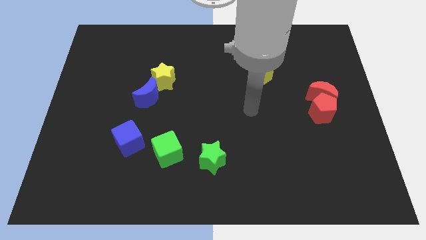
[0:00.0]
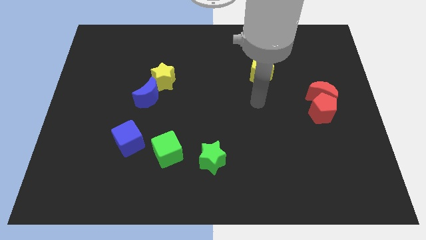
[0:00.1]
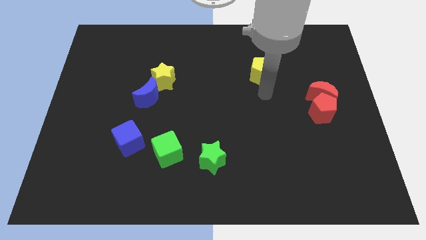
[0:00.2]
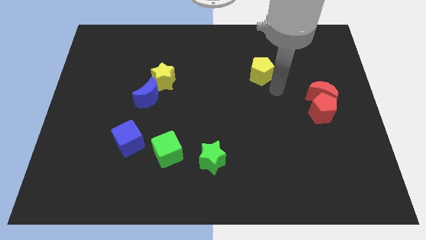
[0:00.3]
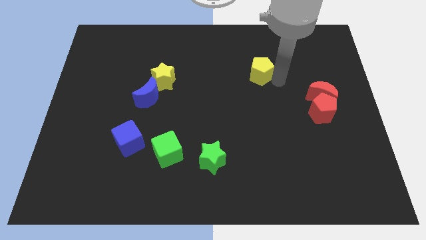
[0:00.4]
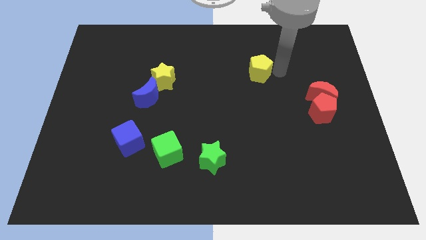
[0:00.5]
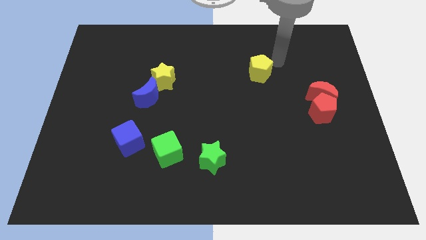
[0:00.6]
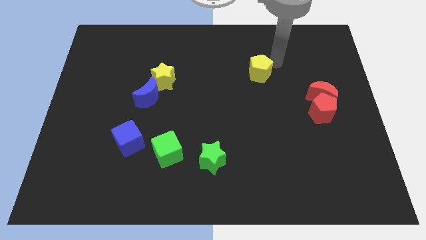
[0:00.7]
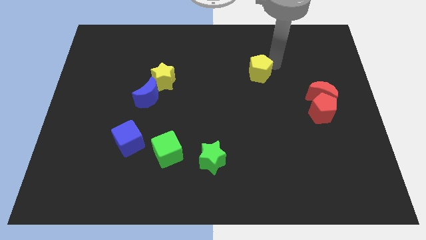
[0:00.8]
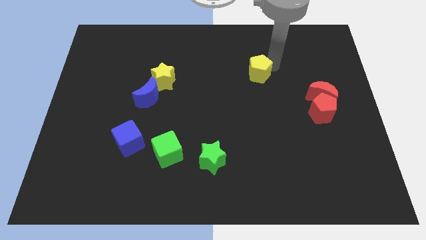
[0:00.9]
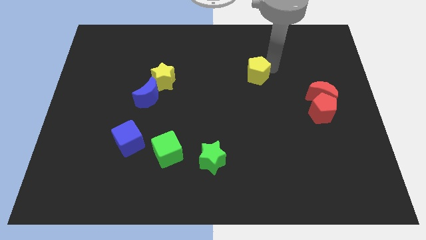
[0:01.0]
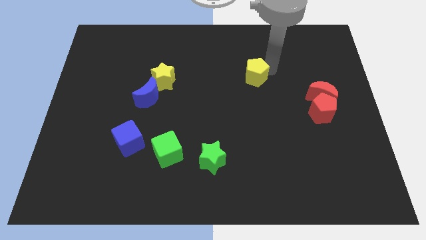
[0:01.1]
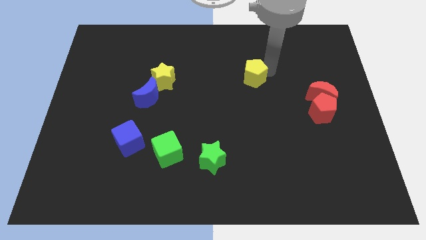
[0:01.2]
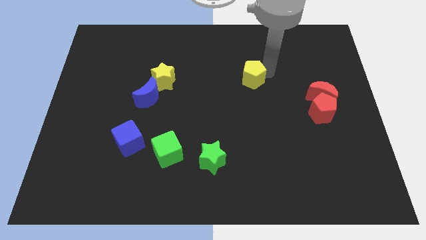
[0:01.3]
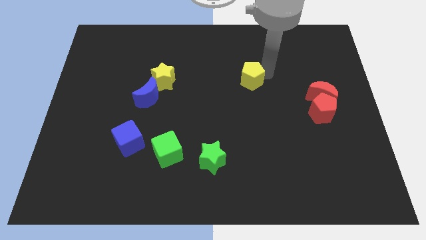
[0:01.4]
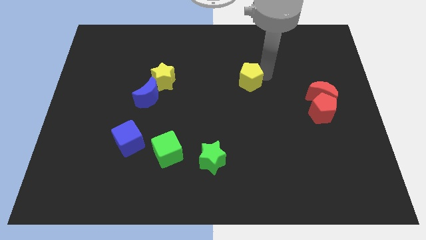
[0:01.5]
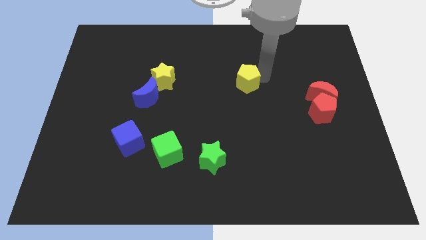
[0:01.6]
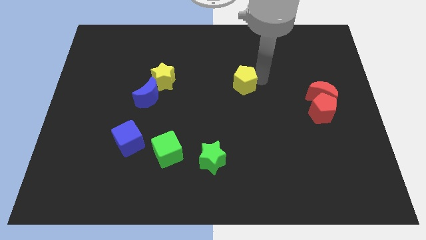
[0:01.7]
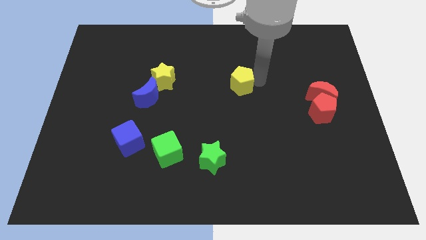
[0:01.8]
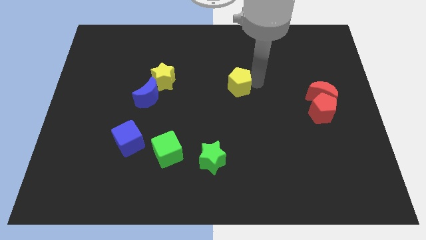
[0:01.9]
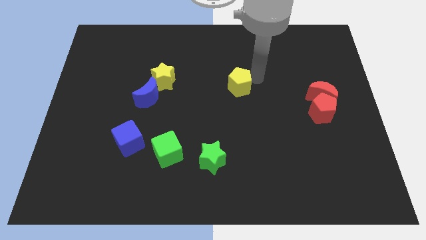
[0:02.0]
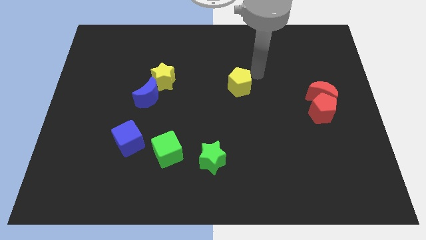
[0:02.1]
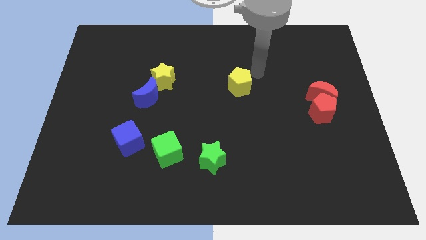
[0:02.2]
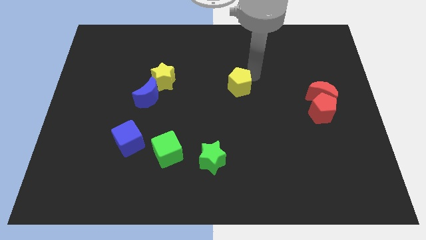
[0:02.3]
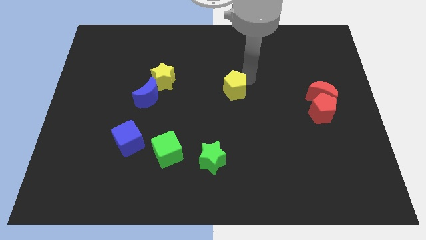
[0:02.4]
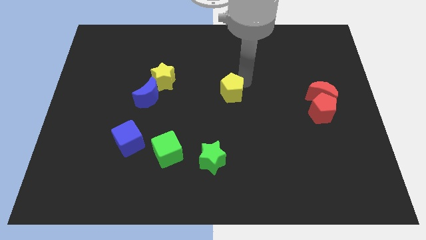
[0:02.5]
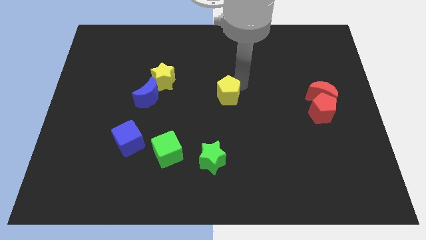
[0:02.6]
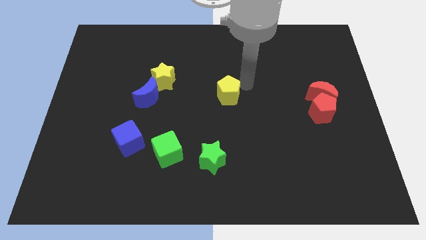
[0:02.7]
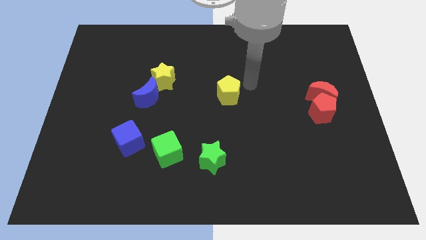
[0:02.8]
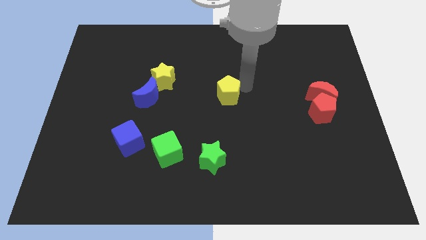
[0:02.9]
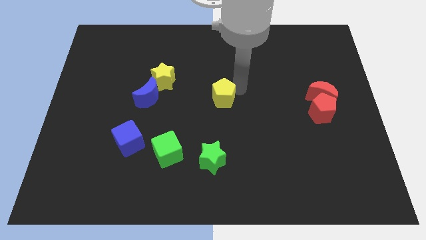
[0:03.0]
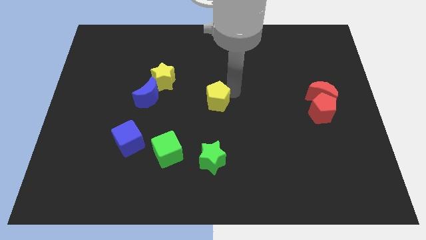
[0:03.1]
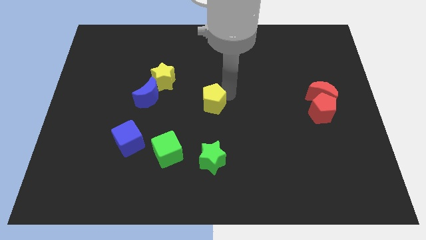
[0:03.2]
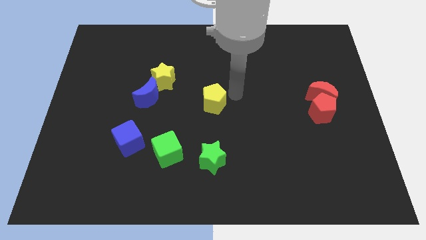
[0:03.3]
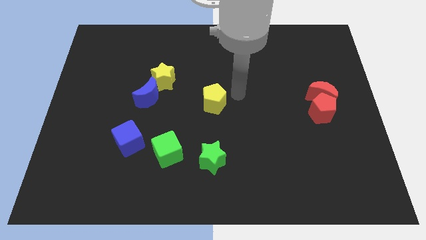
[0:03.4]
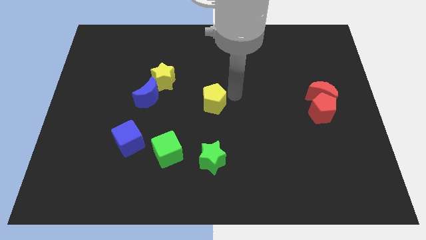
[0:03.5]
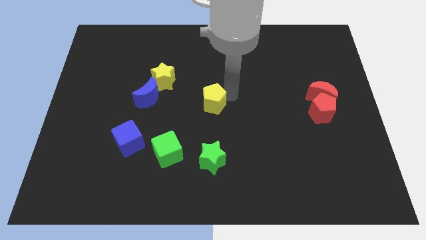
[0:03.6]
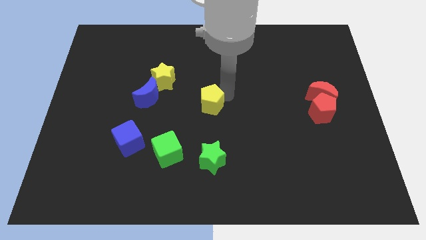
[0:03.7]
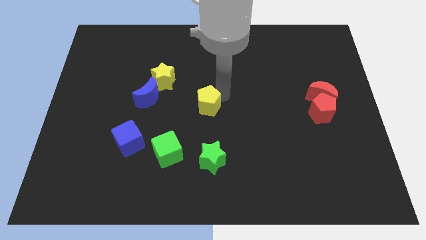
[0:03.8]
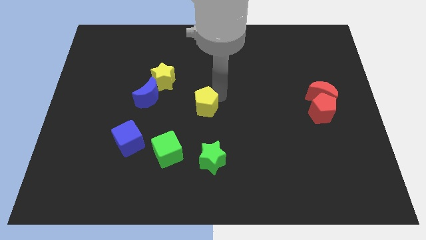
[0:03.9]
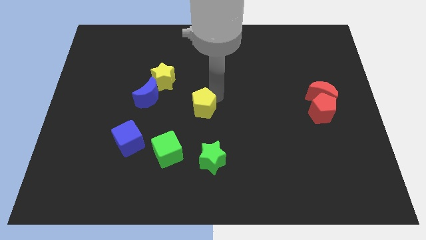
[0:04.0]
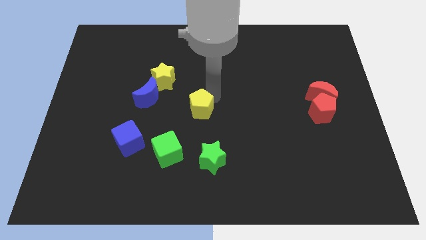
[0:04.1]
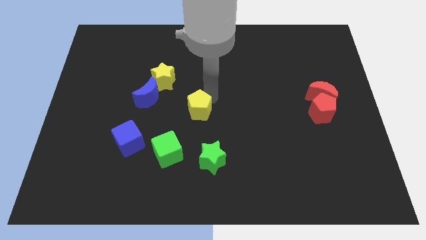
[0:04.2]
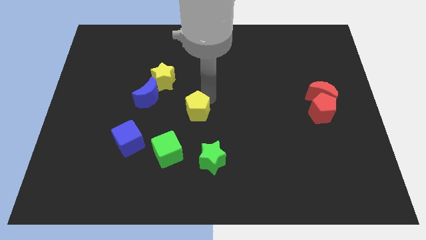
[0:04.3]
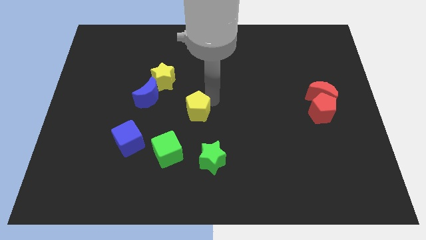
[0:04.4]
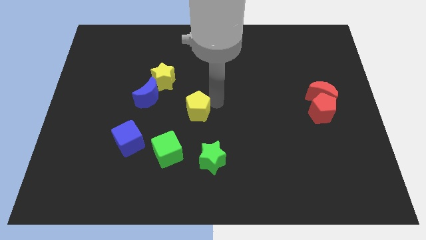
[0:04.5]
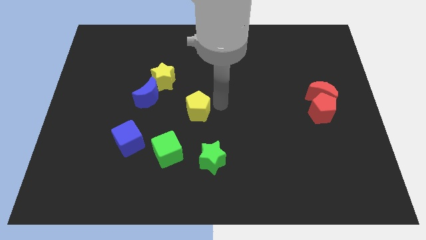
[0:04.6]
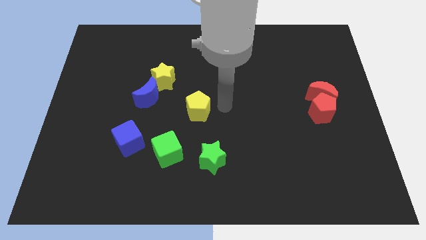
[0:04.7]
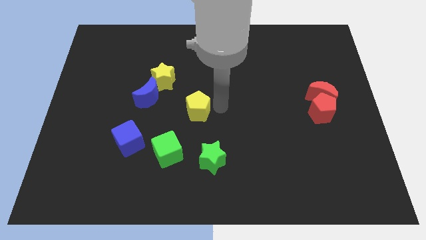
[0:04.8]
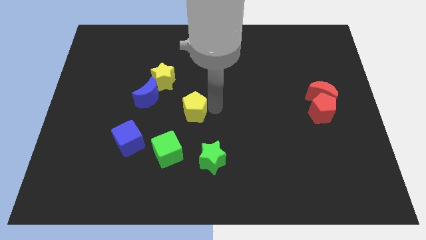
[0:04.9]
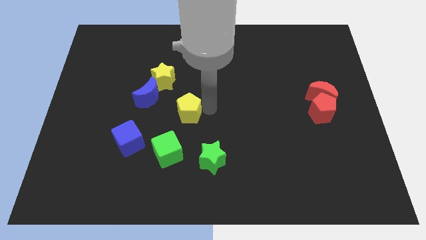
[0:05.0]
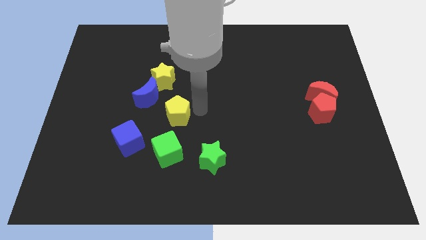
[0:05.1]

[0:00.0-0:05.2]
slide the yellow pentagon diagonally up and to the right of the blue cube

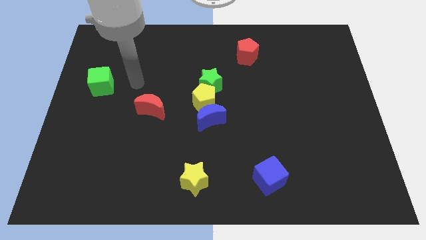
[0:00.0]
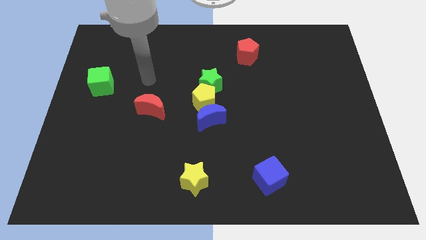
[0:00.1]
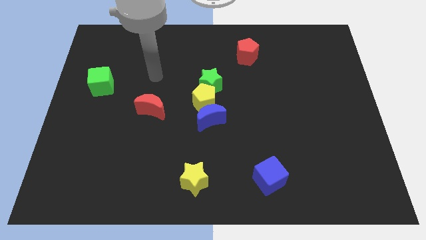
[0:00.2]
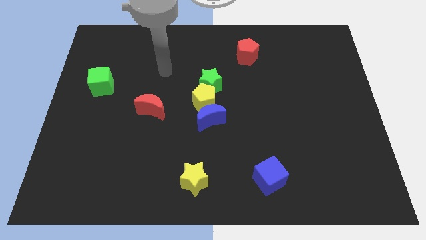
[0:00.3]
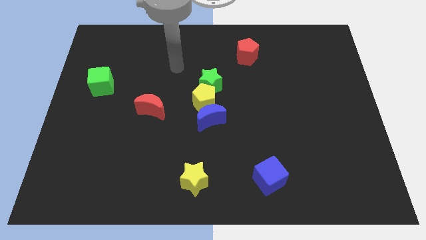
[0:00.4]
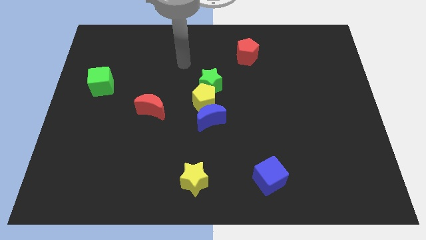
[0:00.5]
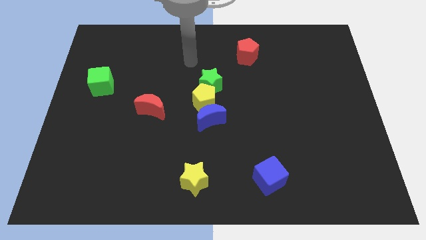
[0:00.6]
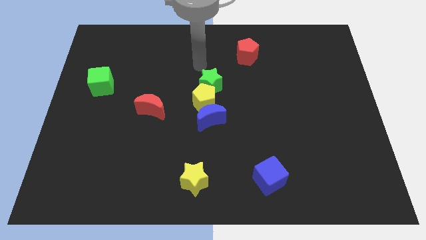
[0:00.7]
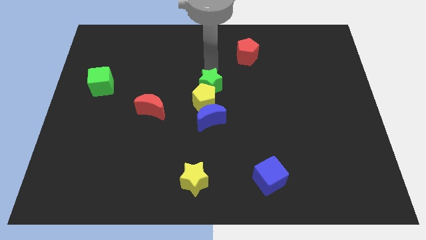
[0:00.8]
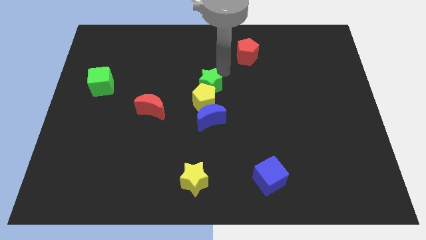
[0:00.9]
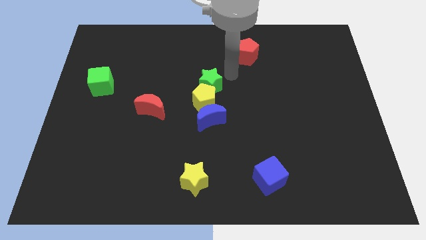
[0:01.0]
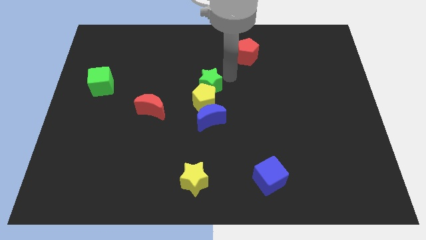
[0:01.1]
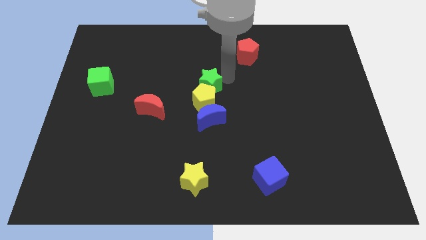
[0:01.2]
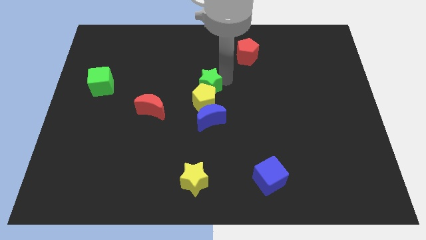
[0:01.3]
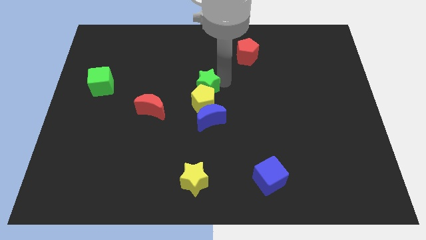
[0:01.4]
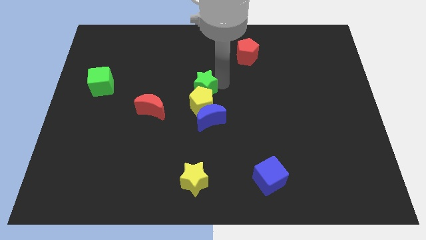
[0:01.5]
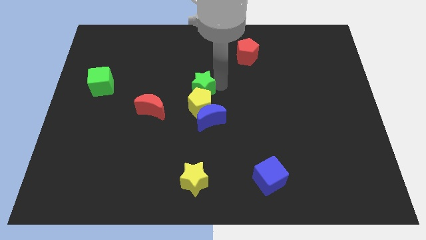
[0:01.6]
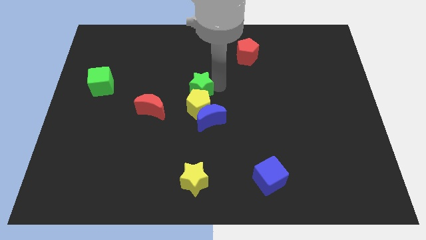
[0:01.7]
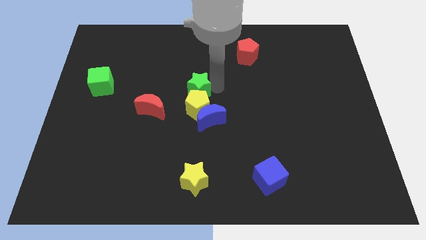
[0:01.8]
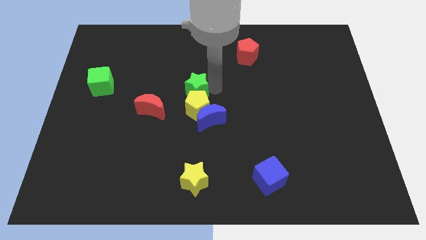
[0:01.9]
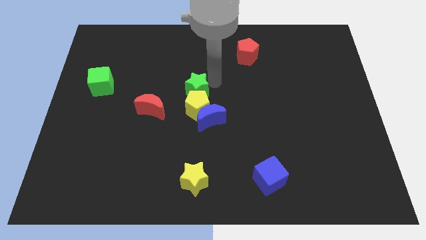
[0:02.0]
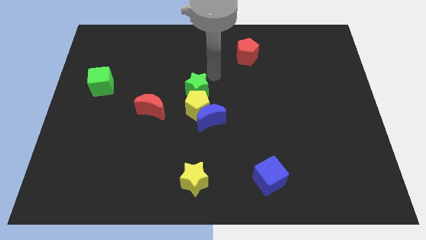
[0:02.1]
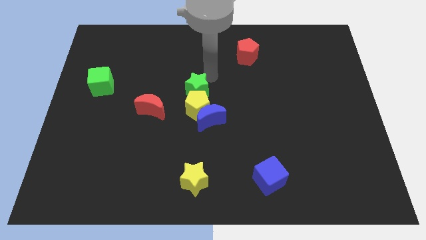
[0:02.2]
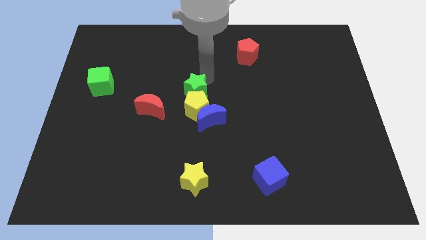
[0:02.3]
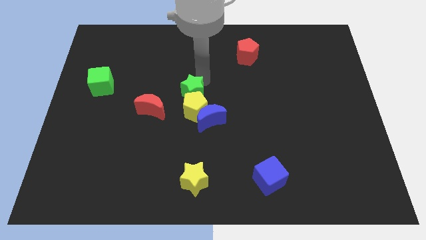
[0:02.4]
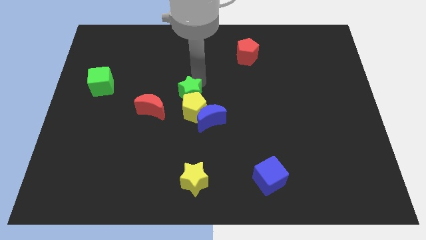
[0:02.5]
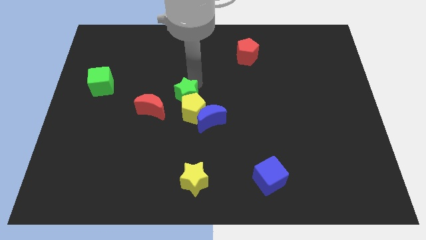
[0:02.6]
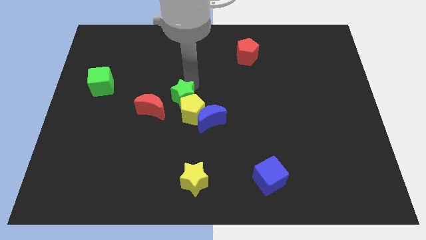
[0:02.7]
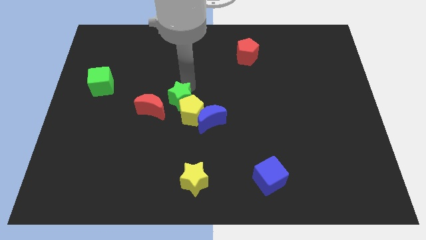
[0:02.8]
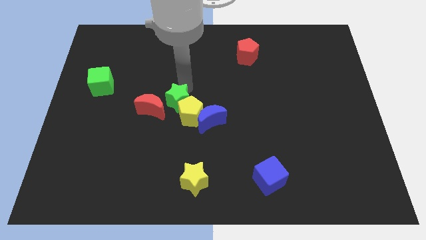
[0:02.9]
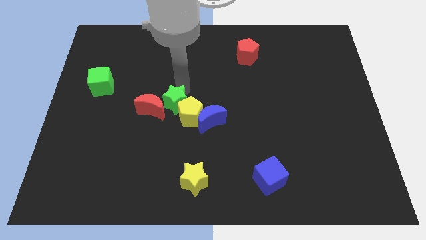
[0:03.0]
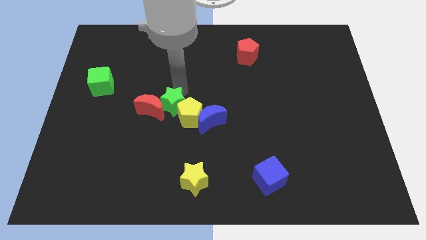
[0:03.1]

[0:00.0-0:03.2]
push the green star to the left of the blue moon
